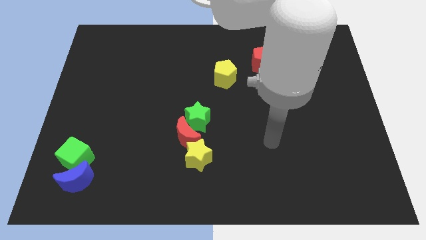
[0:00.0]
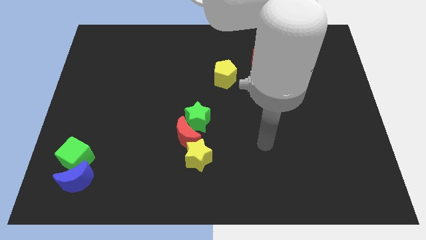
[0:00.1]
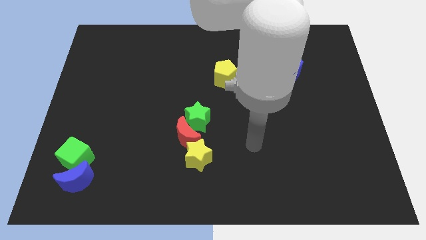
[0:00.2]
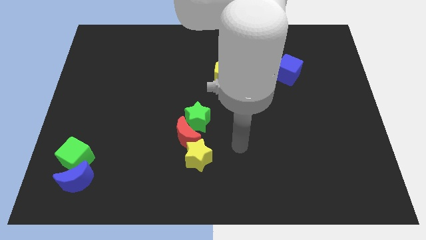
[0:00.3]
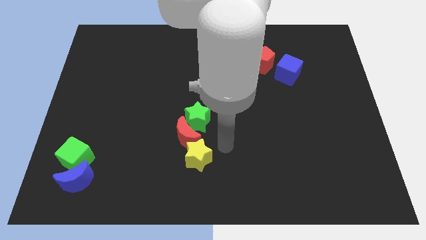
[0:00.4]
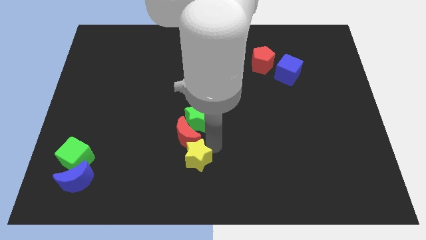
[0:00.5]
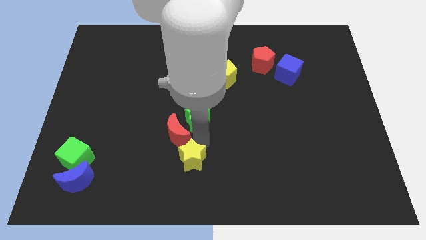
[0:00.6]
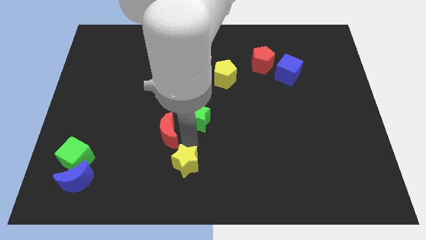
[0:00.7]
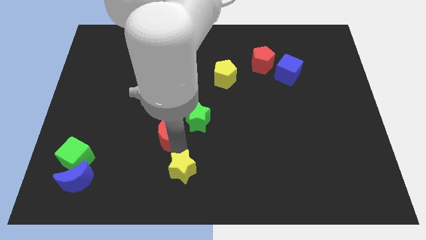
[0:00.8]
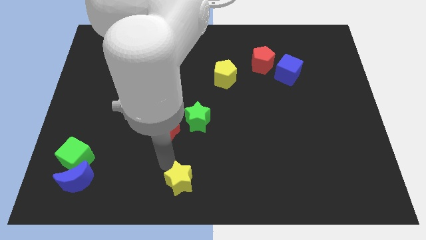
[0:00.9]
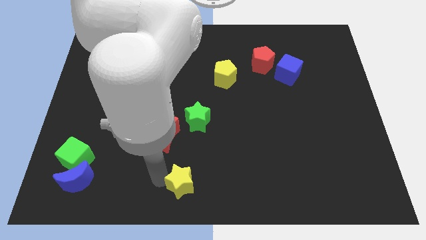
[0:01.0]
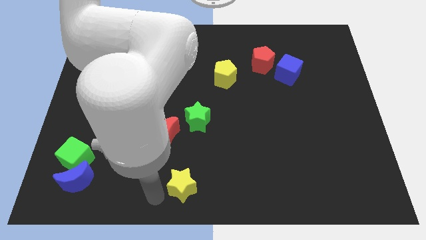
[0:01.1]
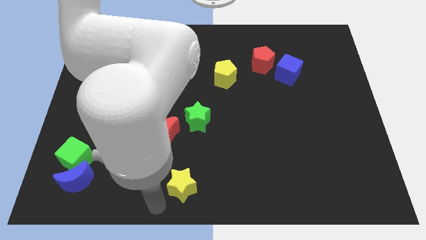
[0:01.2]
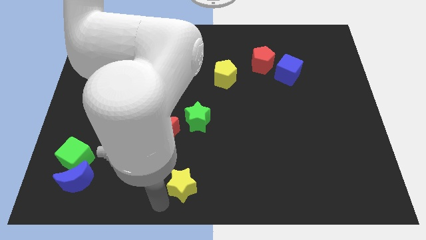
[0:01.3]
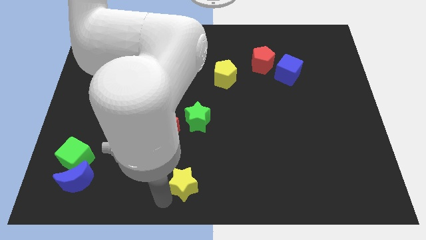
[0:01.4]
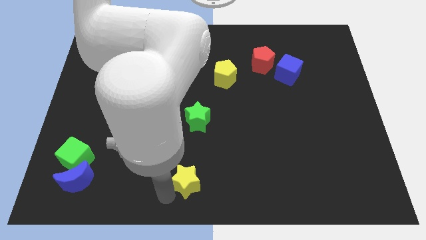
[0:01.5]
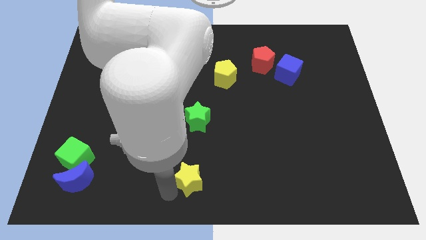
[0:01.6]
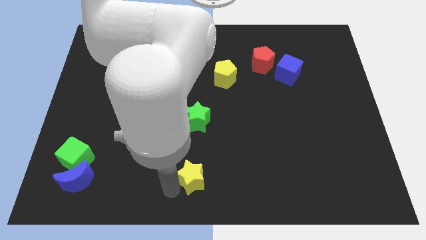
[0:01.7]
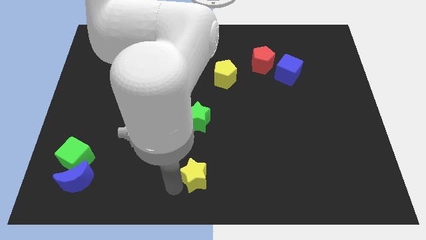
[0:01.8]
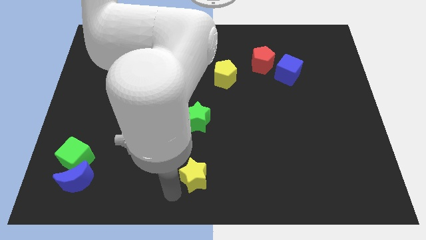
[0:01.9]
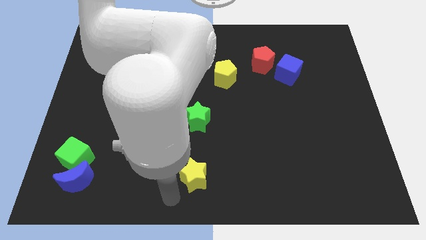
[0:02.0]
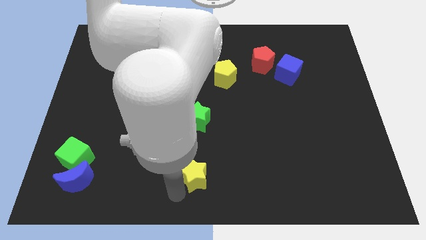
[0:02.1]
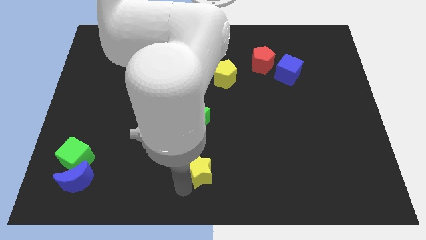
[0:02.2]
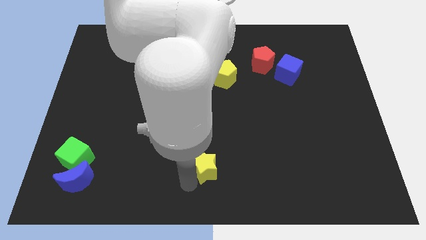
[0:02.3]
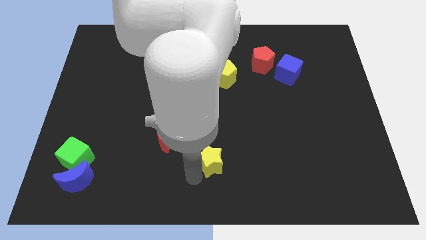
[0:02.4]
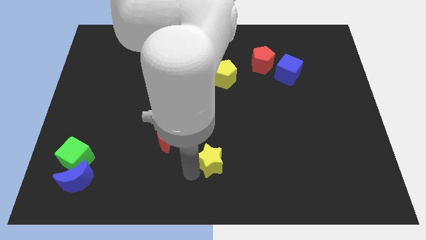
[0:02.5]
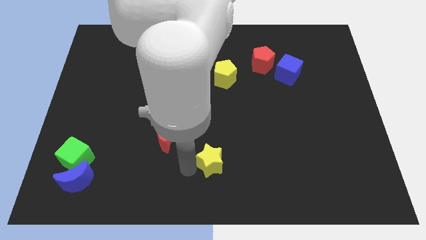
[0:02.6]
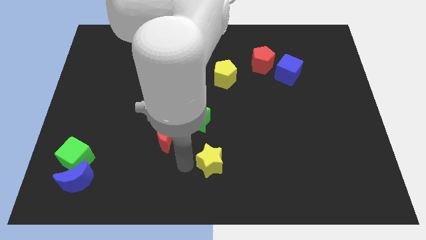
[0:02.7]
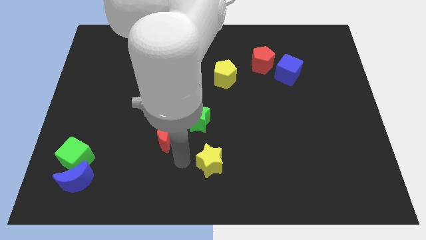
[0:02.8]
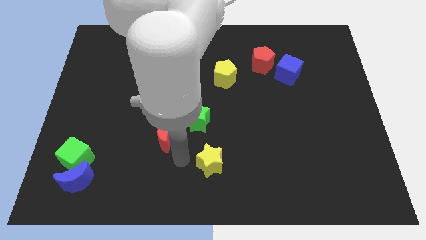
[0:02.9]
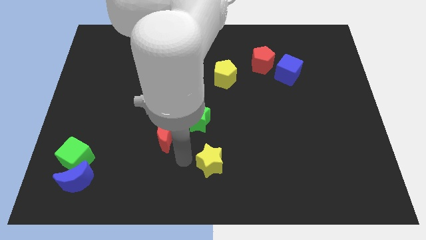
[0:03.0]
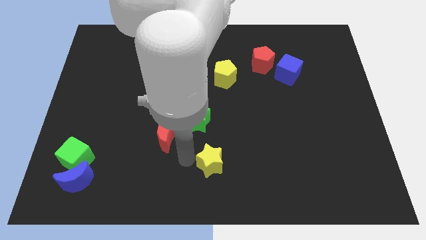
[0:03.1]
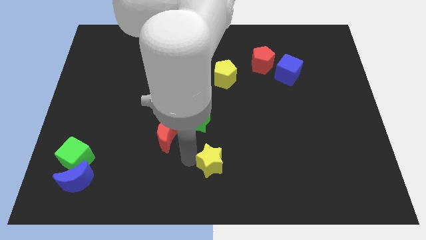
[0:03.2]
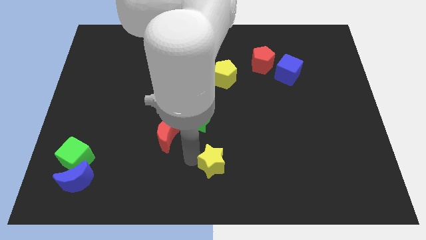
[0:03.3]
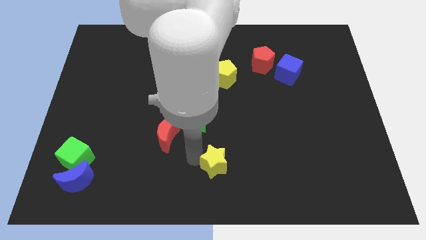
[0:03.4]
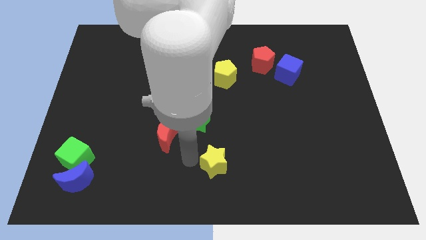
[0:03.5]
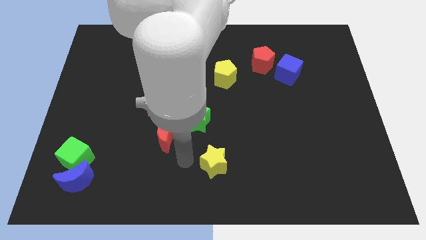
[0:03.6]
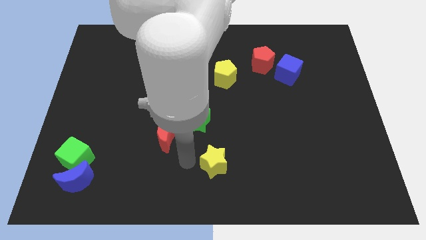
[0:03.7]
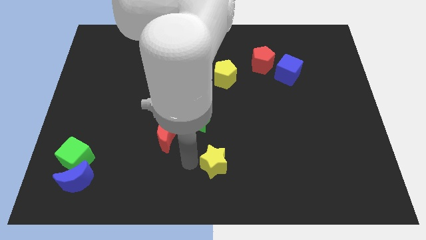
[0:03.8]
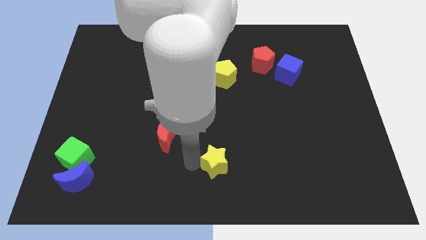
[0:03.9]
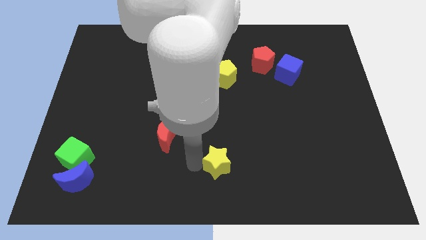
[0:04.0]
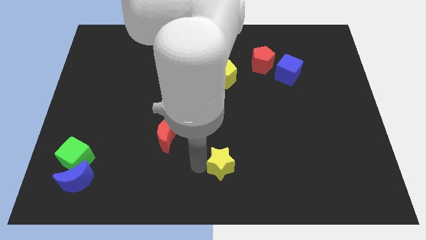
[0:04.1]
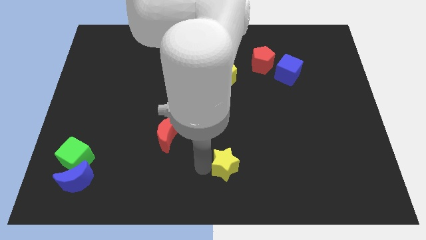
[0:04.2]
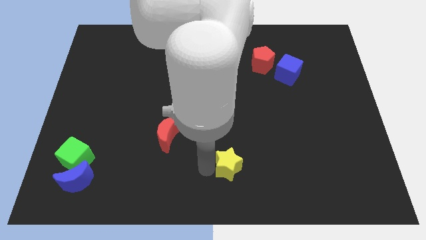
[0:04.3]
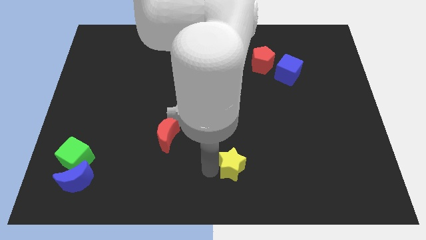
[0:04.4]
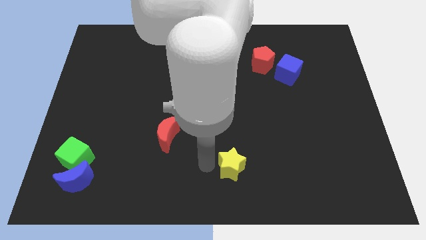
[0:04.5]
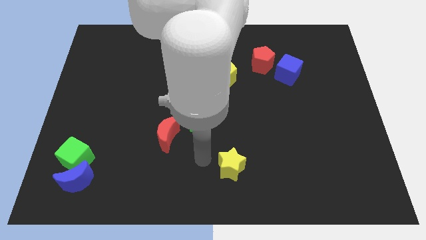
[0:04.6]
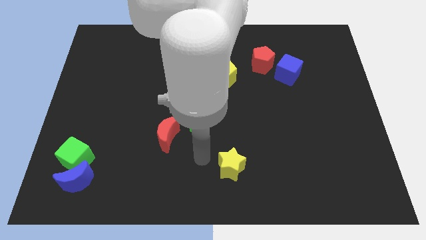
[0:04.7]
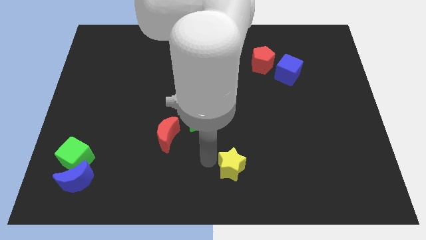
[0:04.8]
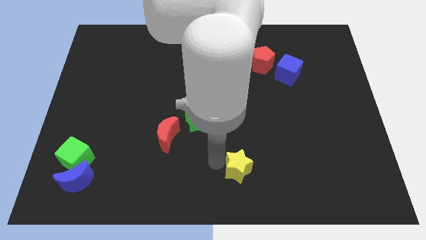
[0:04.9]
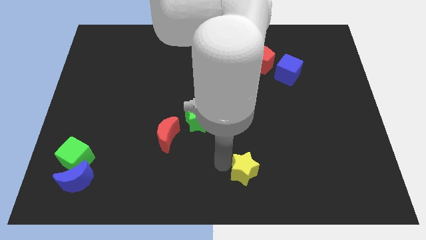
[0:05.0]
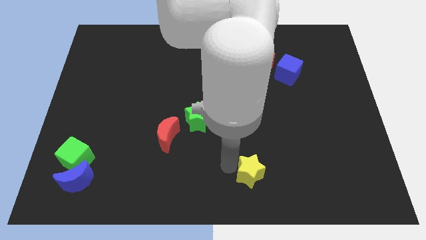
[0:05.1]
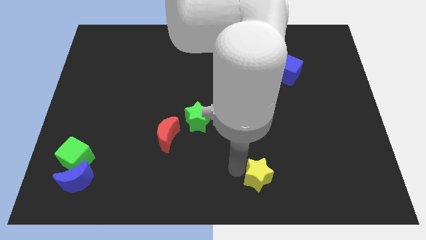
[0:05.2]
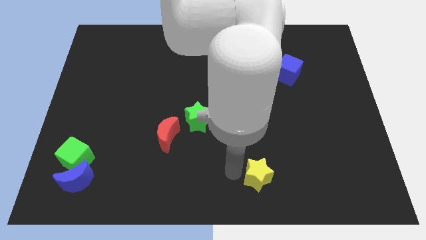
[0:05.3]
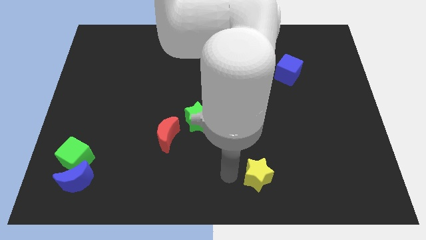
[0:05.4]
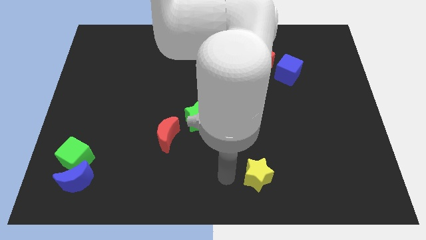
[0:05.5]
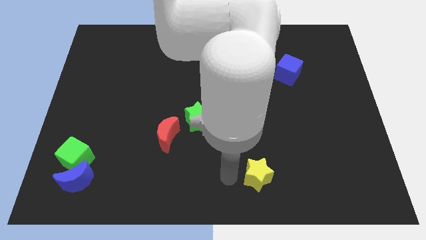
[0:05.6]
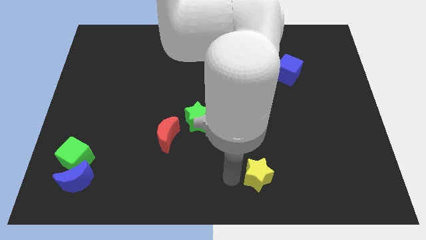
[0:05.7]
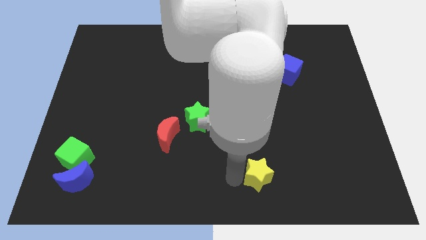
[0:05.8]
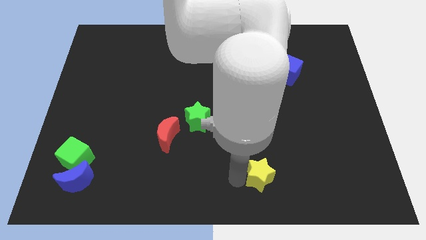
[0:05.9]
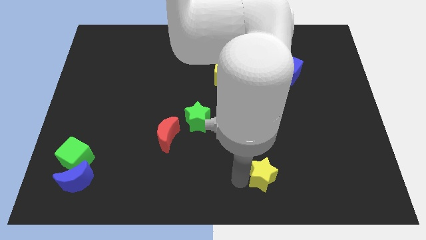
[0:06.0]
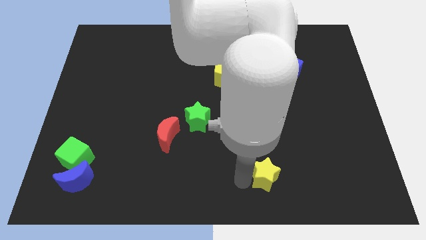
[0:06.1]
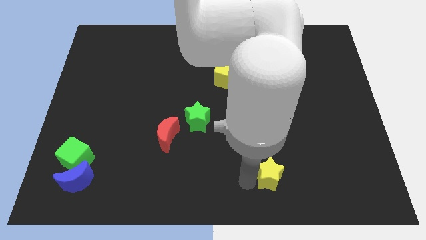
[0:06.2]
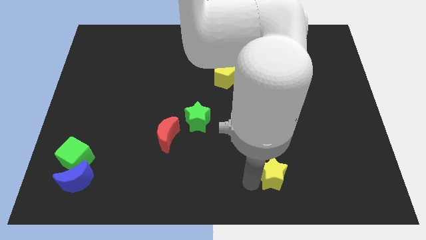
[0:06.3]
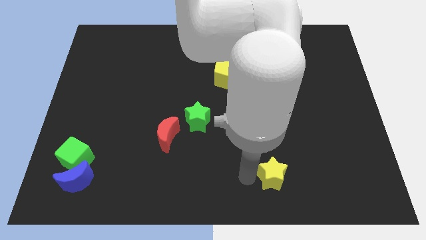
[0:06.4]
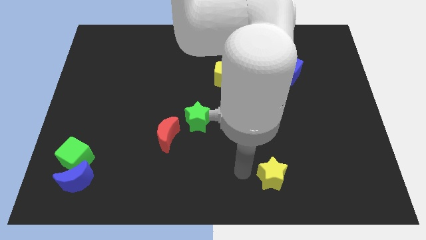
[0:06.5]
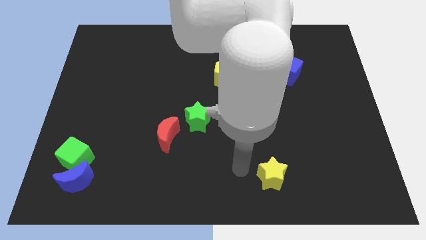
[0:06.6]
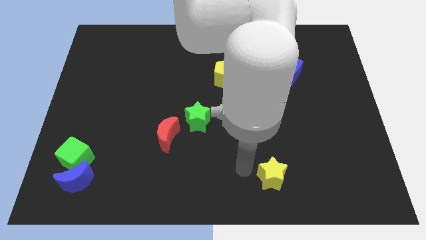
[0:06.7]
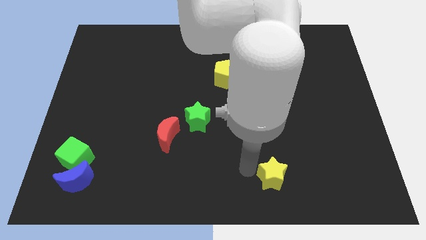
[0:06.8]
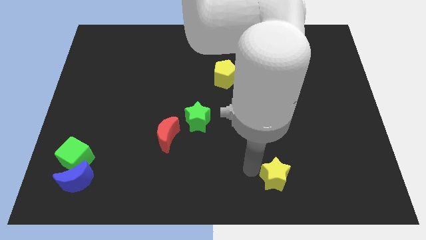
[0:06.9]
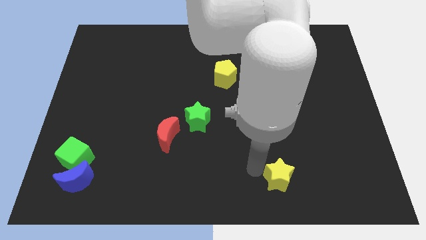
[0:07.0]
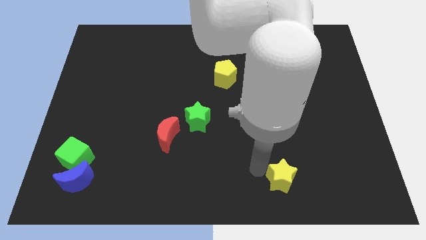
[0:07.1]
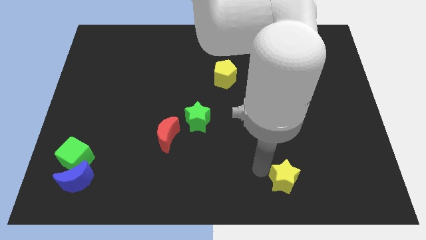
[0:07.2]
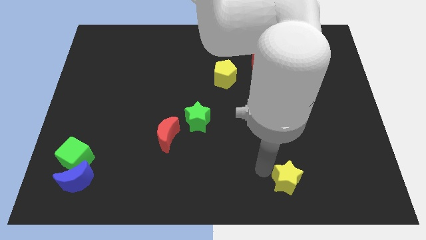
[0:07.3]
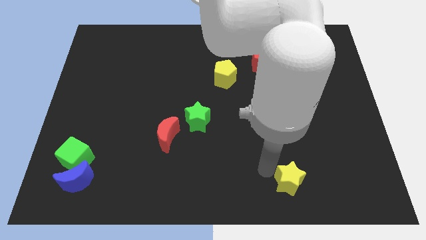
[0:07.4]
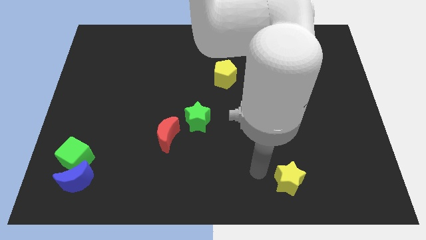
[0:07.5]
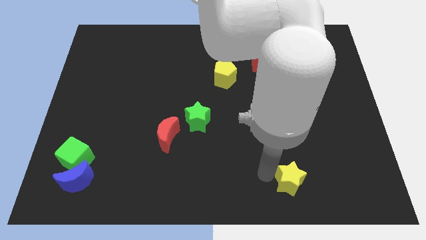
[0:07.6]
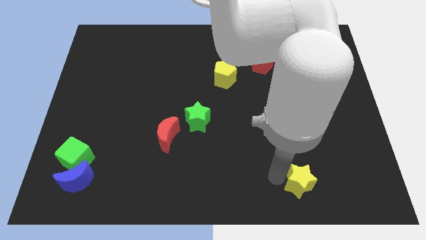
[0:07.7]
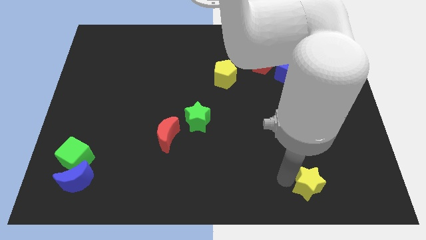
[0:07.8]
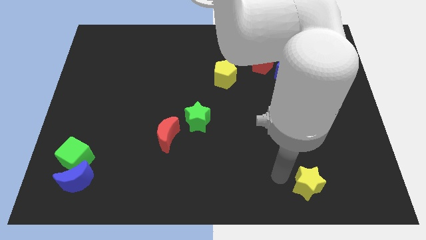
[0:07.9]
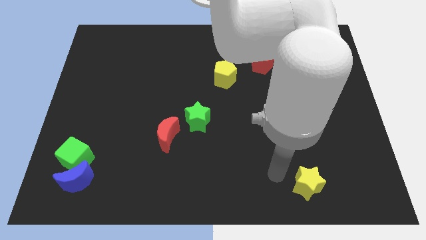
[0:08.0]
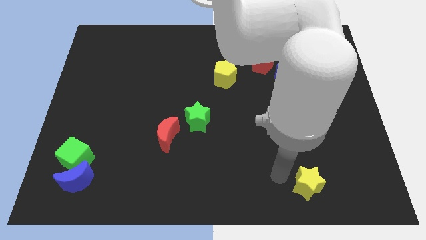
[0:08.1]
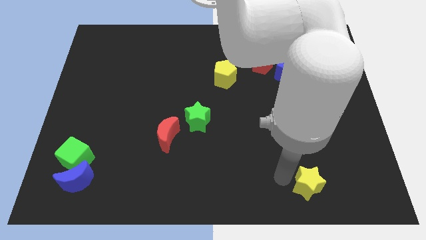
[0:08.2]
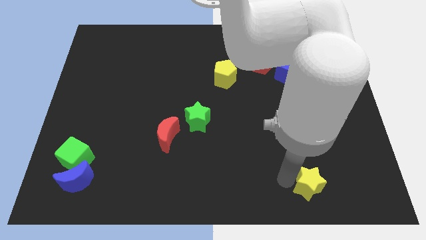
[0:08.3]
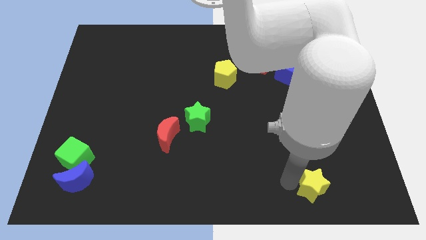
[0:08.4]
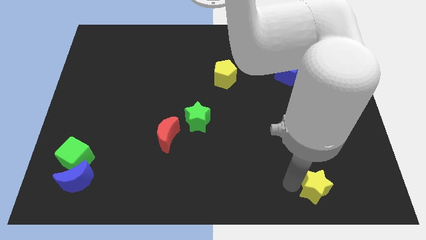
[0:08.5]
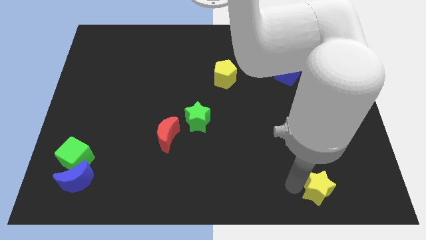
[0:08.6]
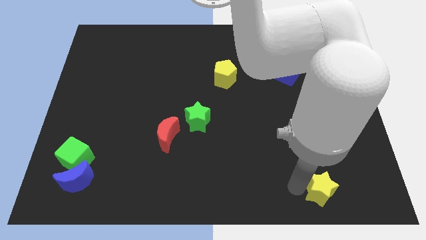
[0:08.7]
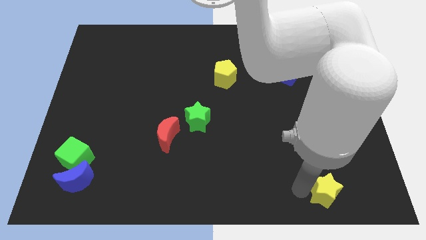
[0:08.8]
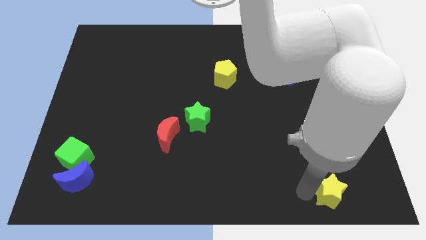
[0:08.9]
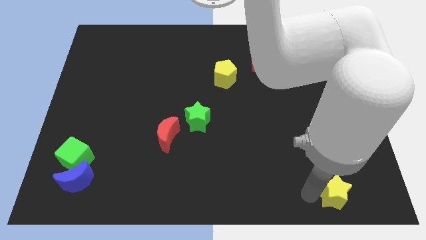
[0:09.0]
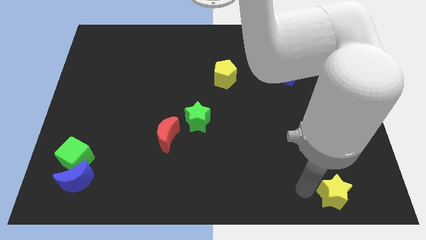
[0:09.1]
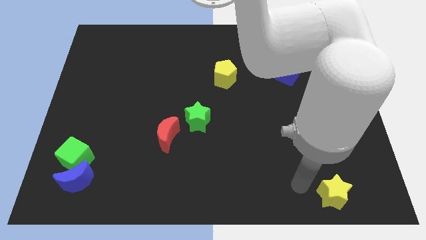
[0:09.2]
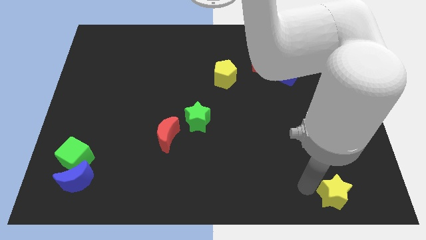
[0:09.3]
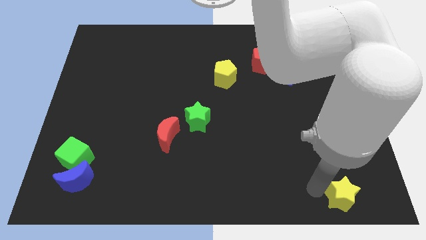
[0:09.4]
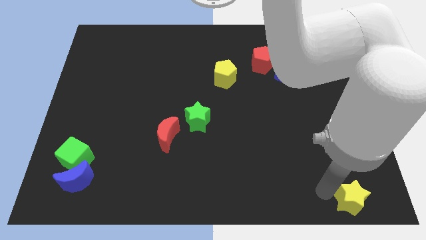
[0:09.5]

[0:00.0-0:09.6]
slide the yellow star to the bottom right of the board
